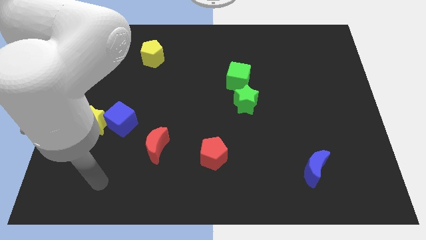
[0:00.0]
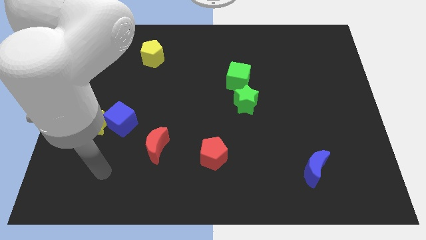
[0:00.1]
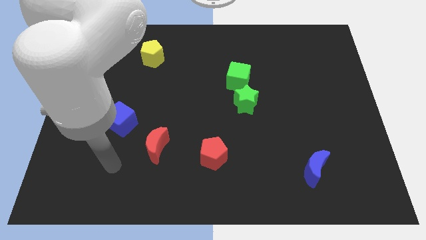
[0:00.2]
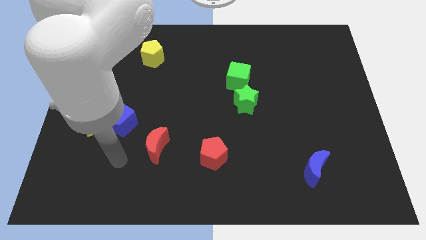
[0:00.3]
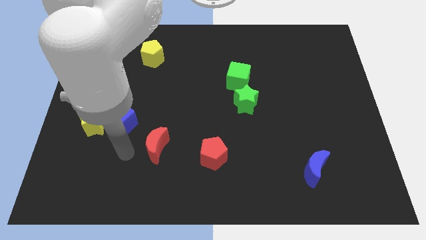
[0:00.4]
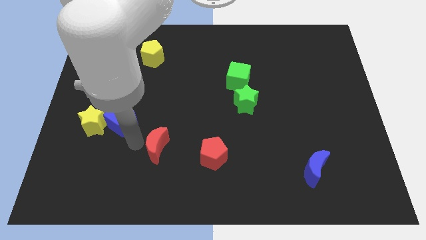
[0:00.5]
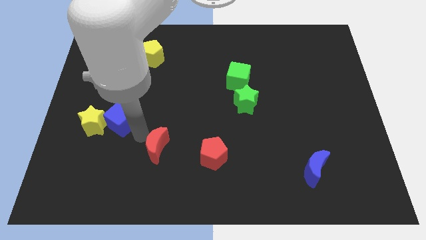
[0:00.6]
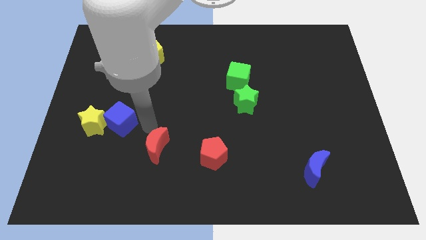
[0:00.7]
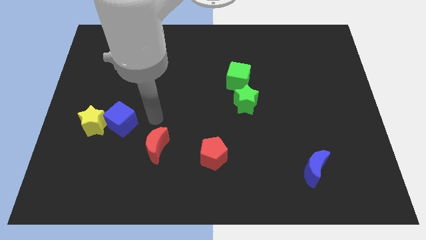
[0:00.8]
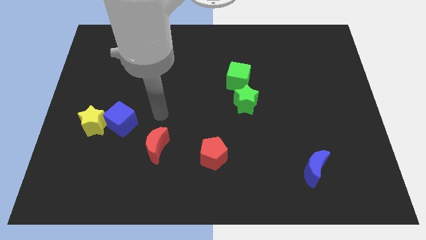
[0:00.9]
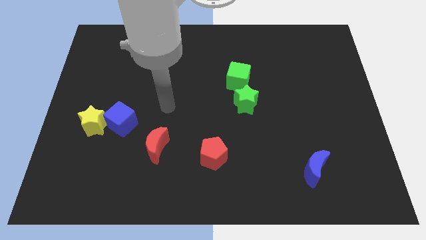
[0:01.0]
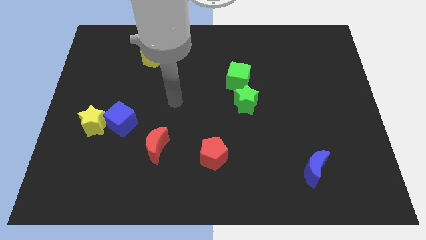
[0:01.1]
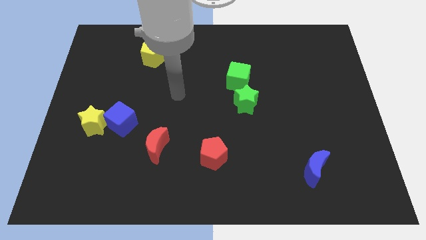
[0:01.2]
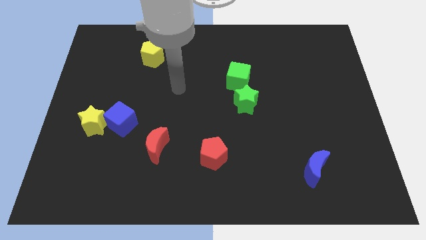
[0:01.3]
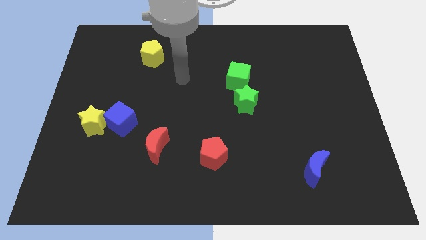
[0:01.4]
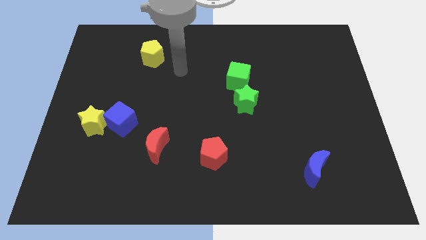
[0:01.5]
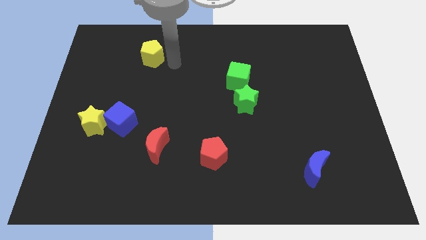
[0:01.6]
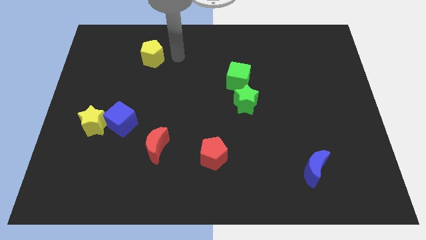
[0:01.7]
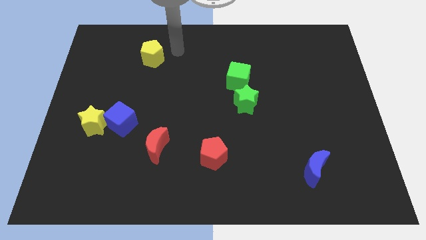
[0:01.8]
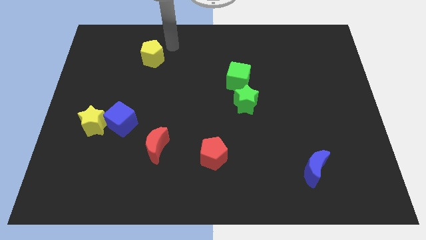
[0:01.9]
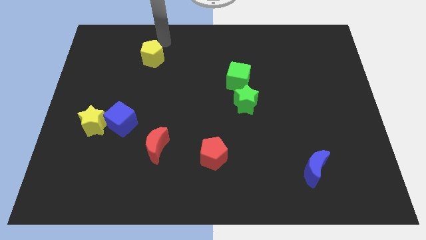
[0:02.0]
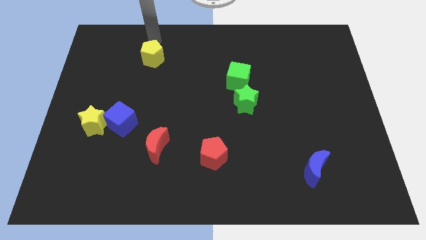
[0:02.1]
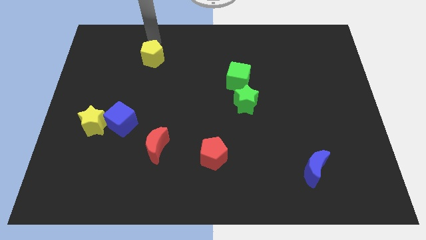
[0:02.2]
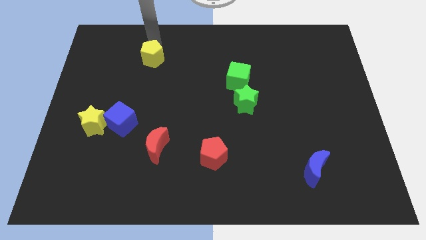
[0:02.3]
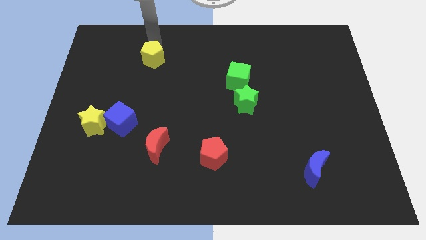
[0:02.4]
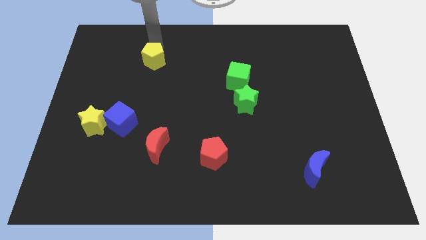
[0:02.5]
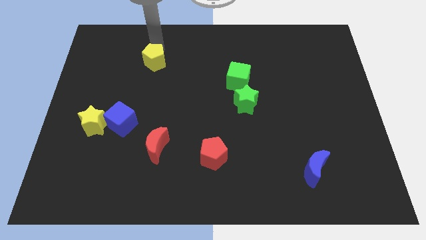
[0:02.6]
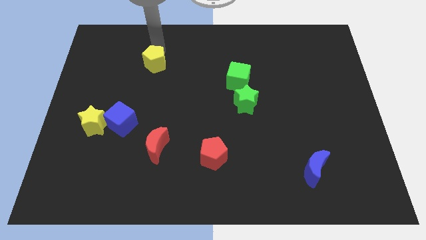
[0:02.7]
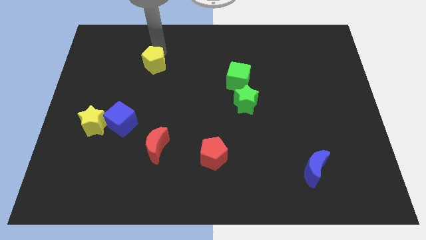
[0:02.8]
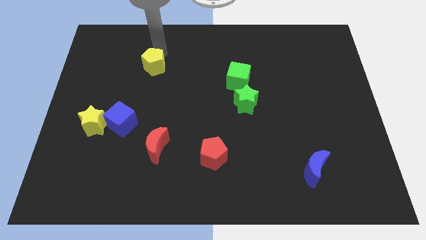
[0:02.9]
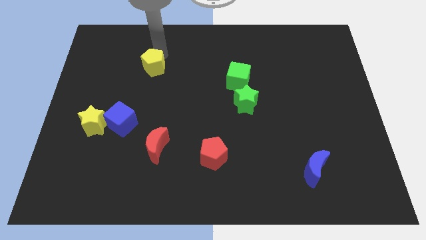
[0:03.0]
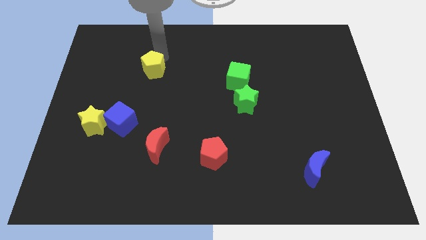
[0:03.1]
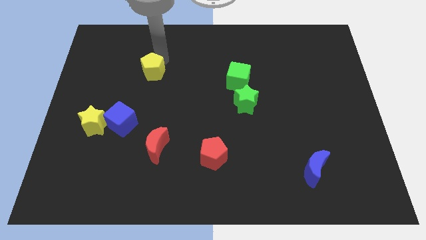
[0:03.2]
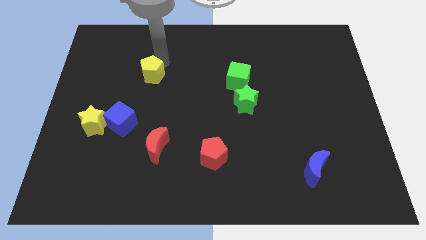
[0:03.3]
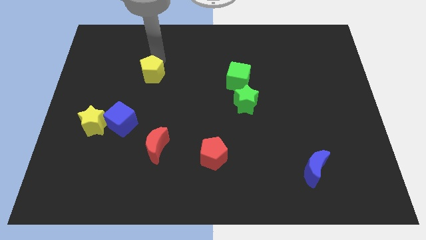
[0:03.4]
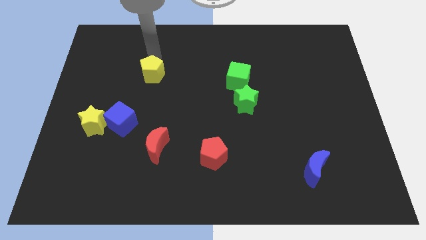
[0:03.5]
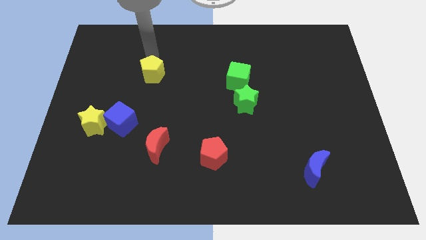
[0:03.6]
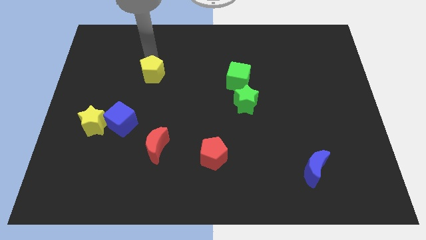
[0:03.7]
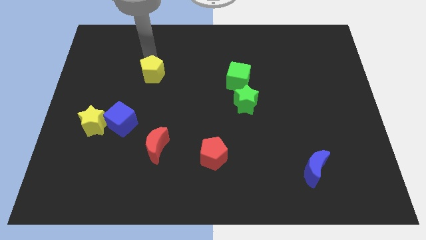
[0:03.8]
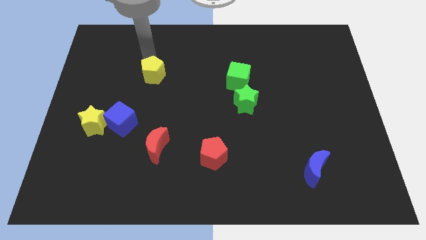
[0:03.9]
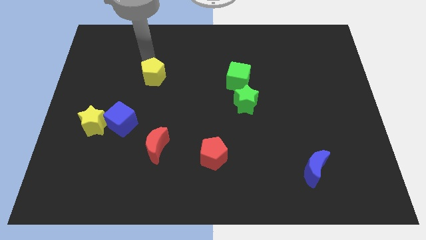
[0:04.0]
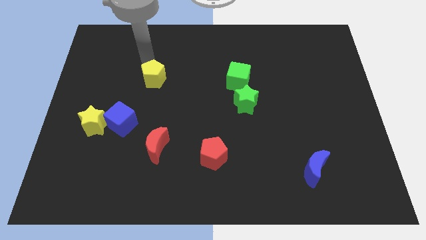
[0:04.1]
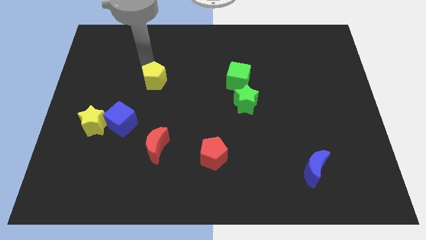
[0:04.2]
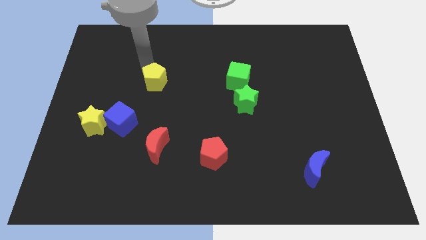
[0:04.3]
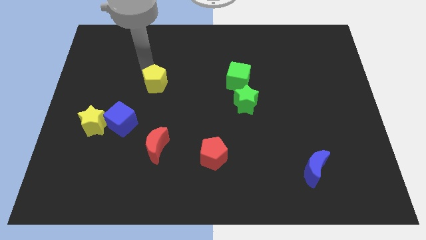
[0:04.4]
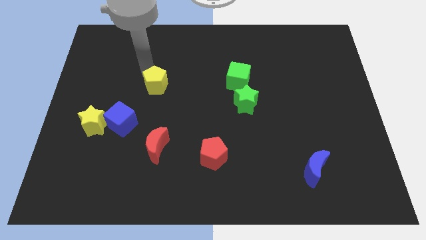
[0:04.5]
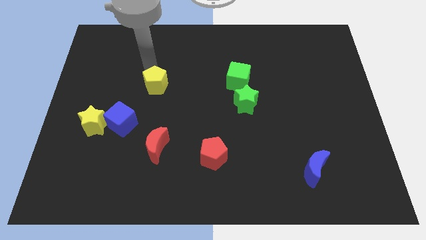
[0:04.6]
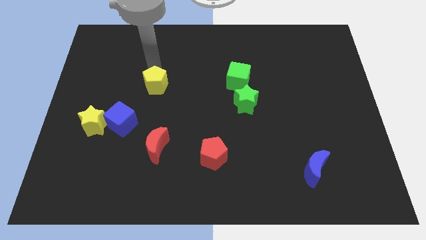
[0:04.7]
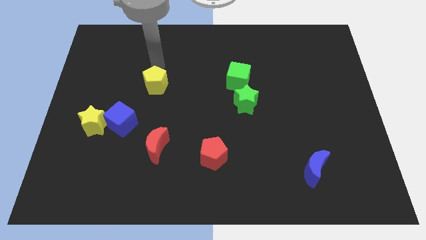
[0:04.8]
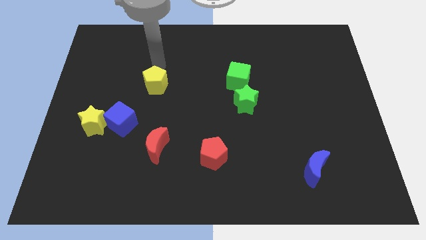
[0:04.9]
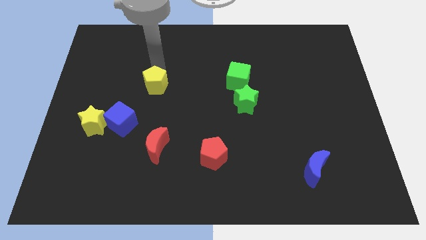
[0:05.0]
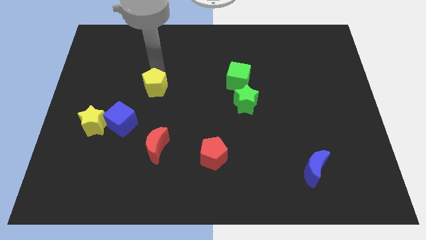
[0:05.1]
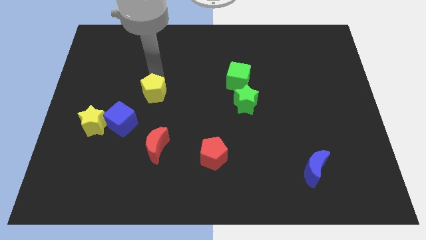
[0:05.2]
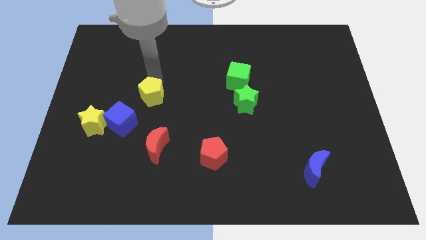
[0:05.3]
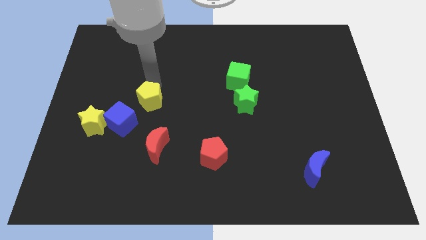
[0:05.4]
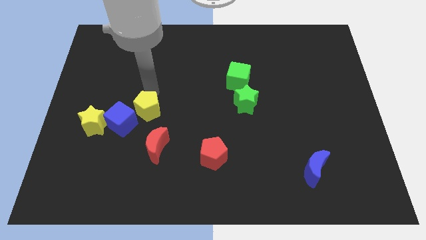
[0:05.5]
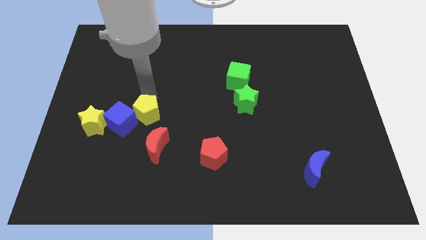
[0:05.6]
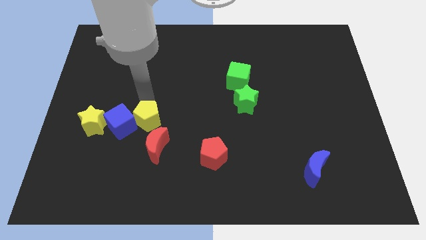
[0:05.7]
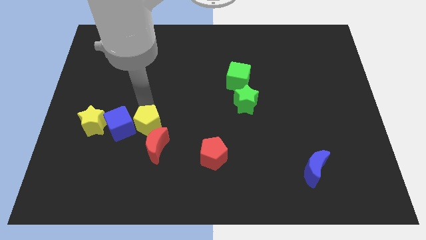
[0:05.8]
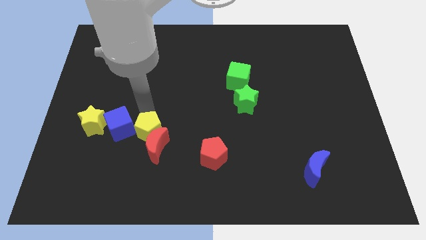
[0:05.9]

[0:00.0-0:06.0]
move the yellow pentagon close to the red moon

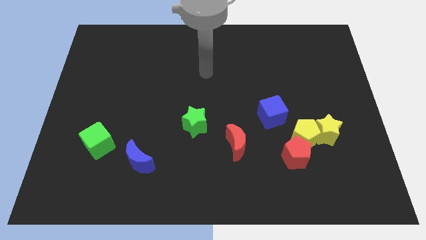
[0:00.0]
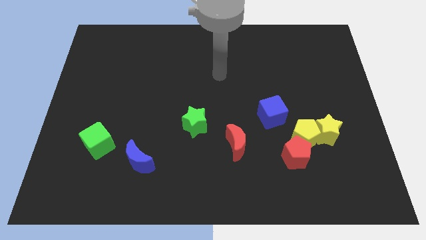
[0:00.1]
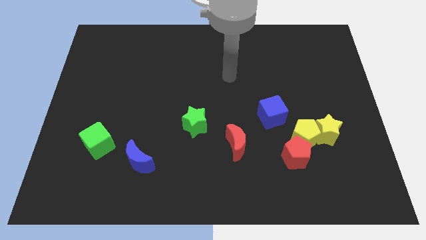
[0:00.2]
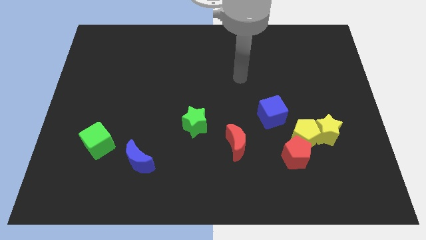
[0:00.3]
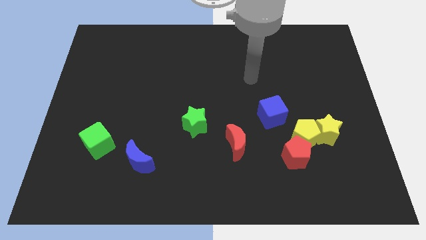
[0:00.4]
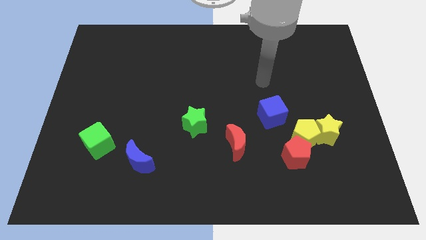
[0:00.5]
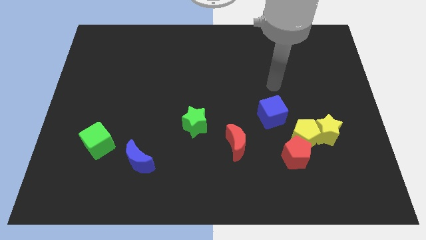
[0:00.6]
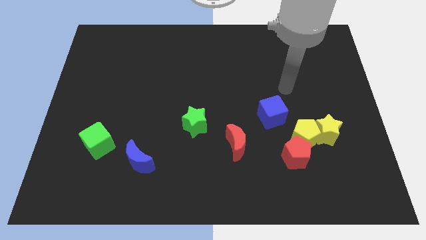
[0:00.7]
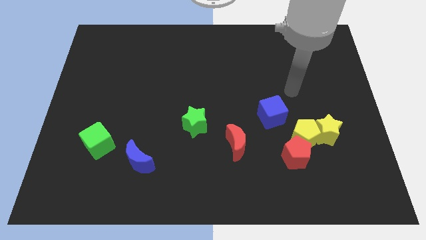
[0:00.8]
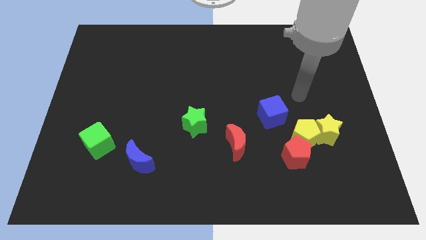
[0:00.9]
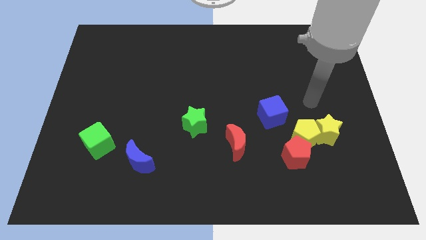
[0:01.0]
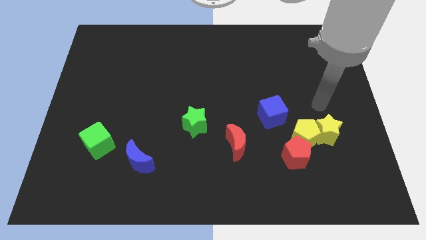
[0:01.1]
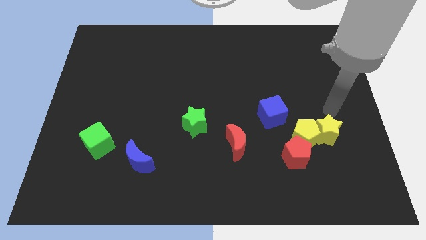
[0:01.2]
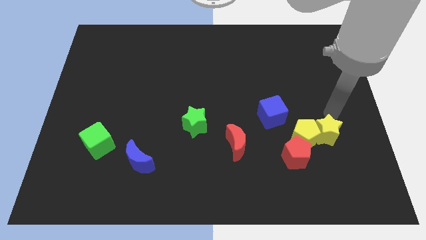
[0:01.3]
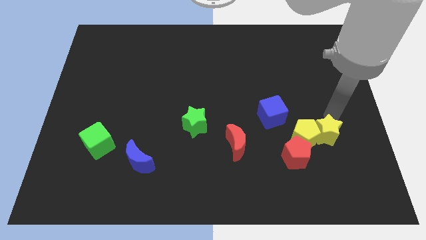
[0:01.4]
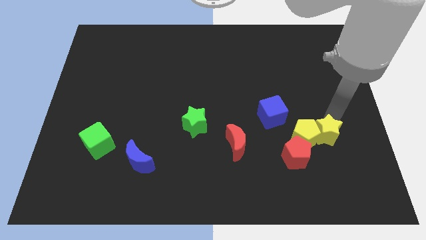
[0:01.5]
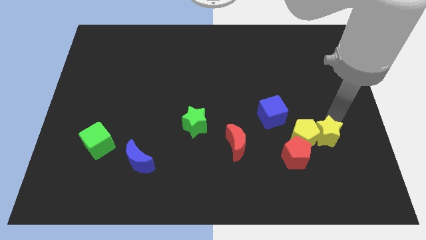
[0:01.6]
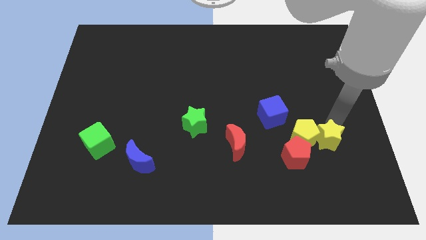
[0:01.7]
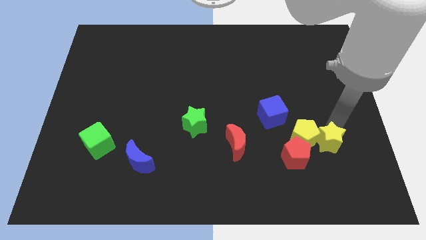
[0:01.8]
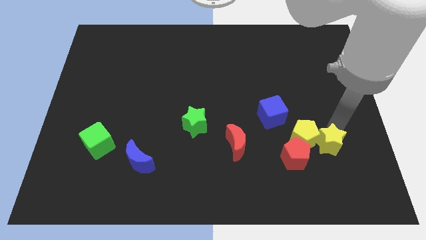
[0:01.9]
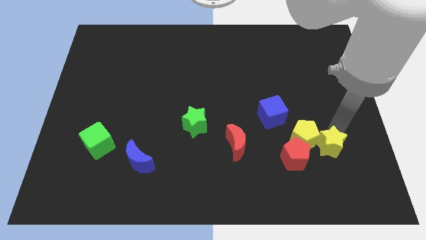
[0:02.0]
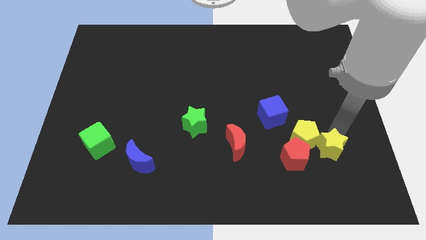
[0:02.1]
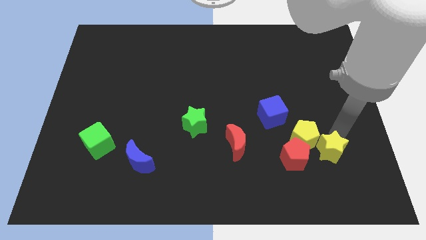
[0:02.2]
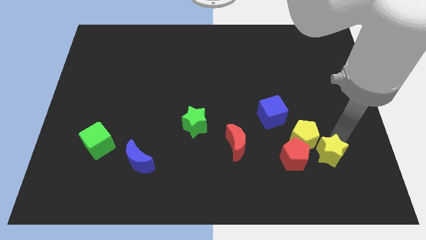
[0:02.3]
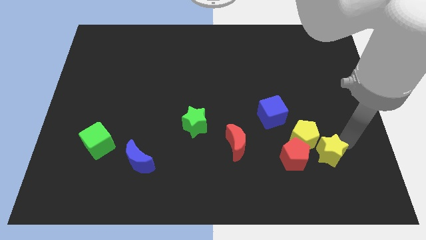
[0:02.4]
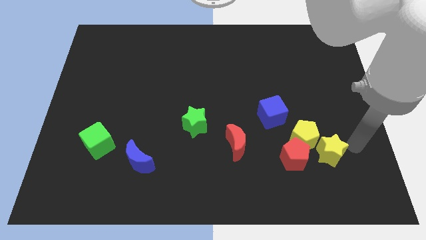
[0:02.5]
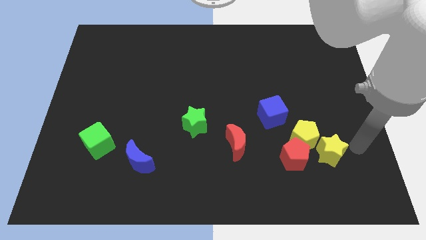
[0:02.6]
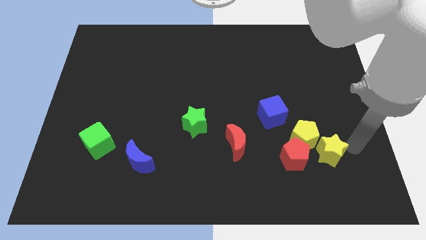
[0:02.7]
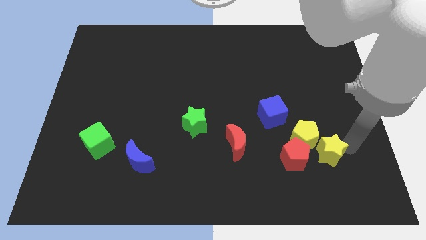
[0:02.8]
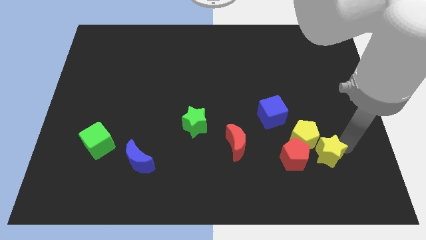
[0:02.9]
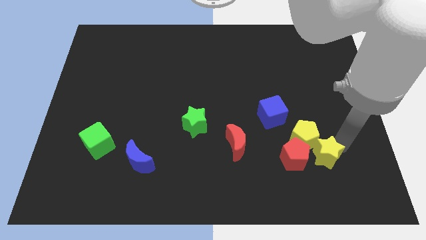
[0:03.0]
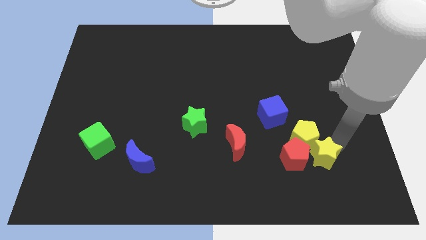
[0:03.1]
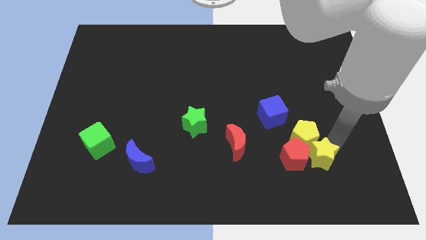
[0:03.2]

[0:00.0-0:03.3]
move the yellow star towards the red pentagon
